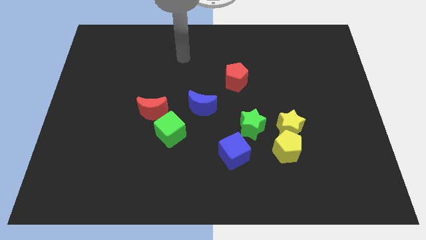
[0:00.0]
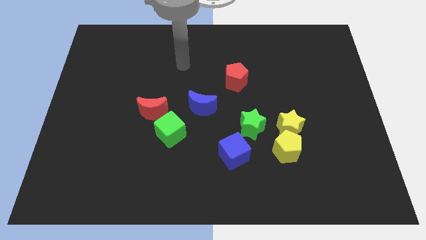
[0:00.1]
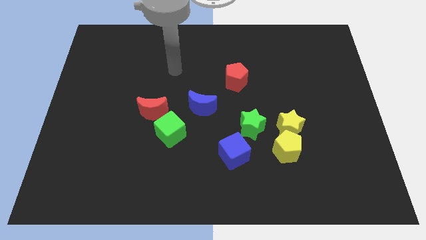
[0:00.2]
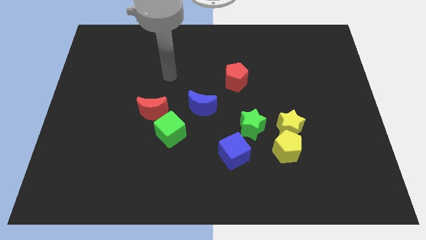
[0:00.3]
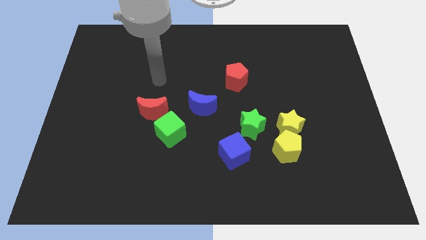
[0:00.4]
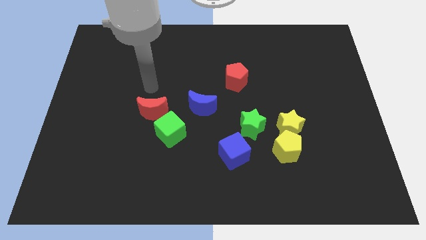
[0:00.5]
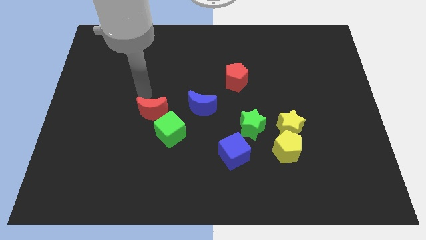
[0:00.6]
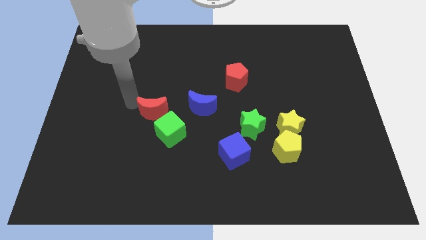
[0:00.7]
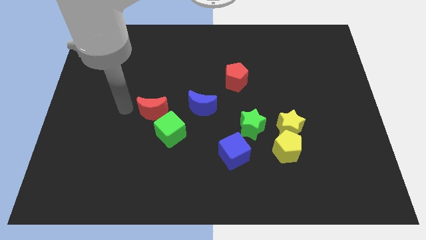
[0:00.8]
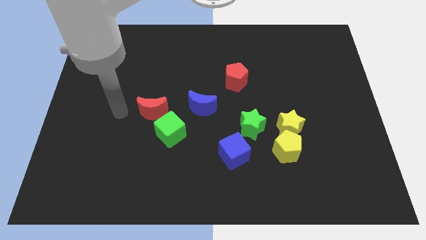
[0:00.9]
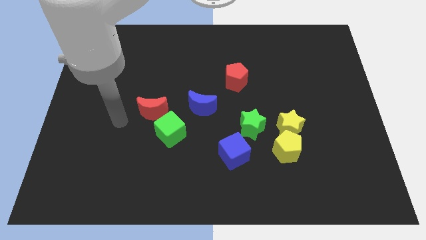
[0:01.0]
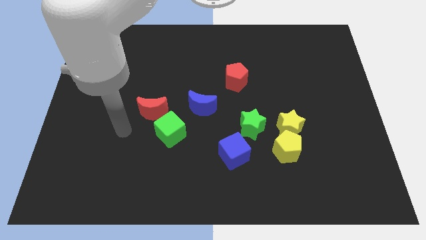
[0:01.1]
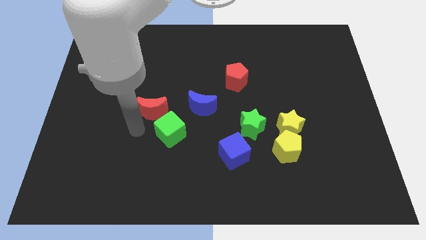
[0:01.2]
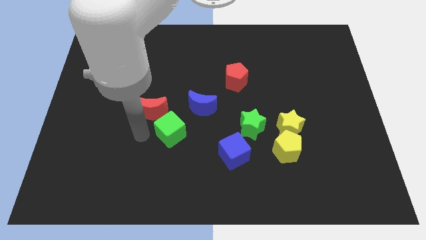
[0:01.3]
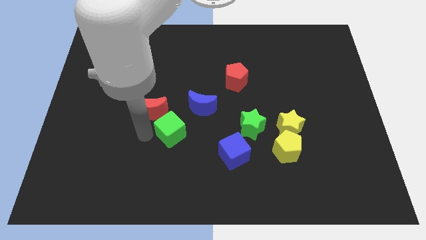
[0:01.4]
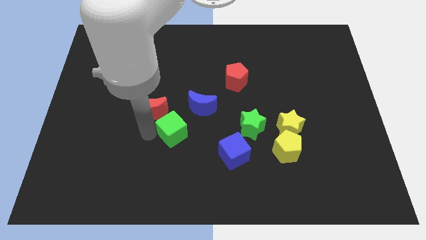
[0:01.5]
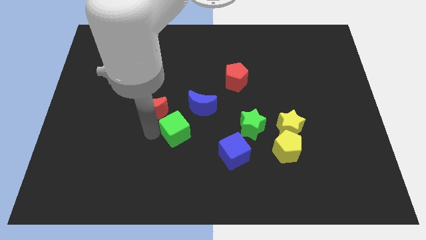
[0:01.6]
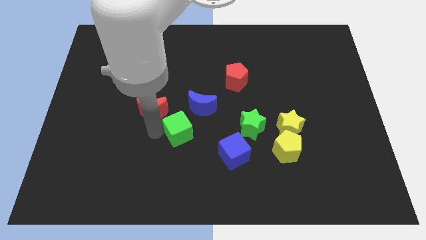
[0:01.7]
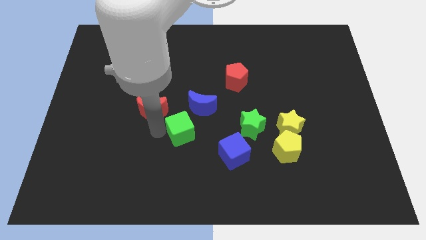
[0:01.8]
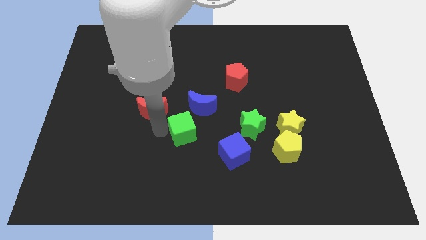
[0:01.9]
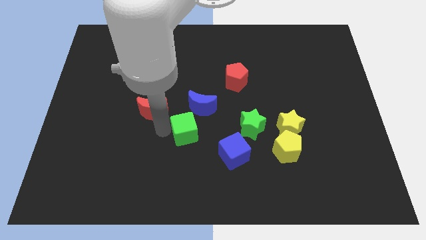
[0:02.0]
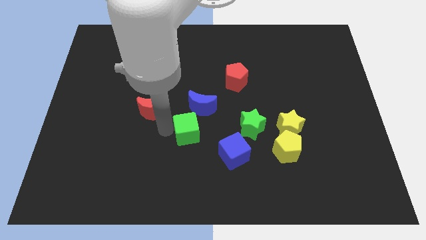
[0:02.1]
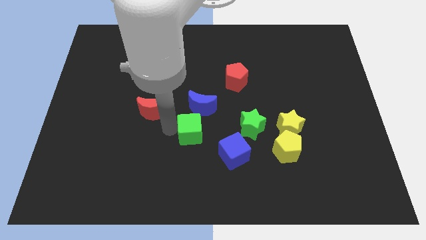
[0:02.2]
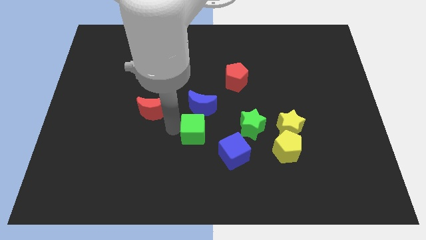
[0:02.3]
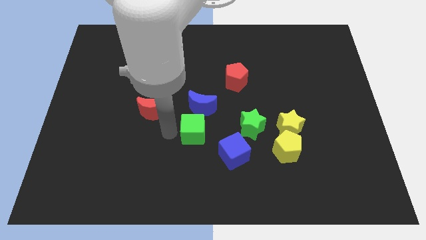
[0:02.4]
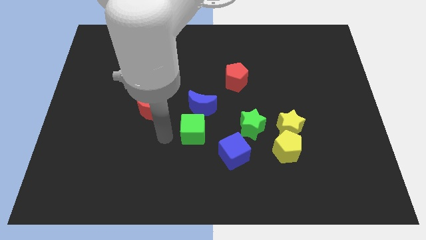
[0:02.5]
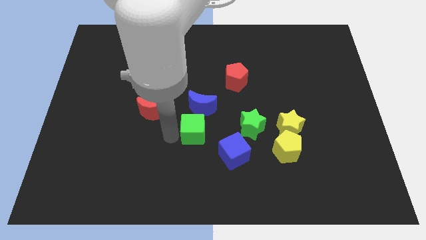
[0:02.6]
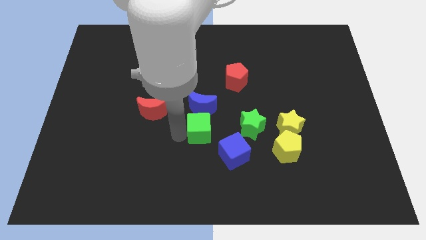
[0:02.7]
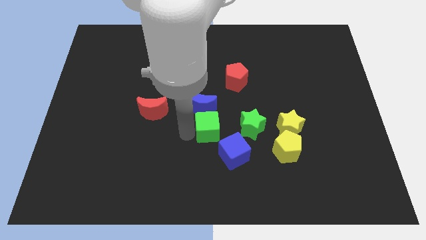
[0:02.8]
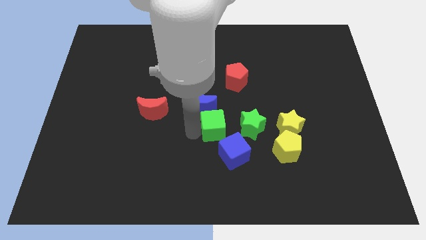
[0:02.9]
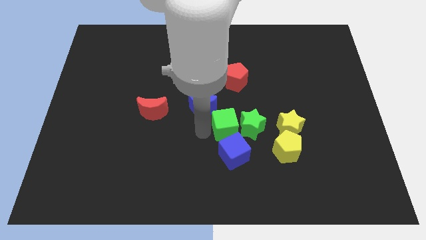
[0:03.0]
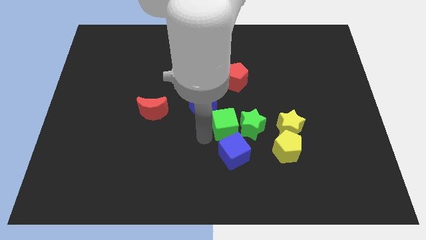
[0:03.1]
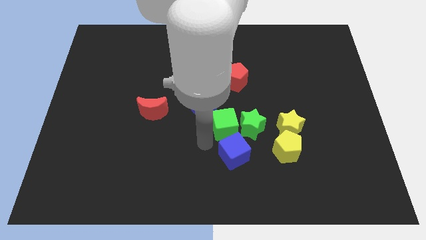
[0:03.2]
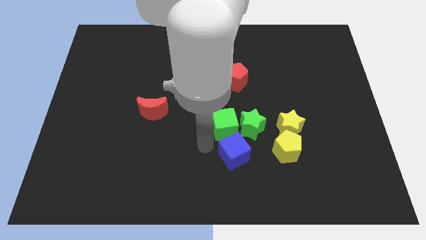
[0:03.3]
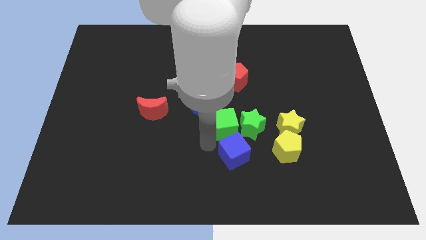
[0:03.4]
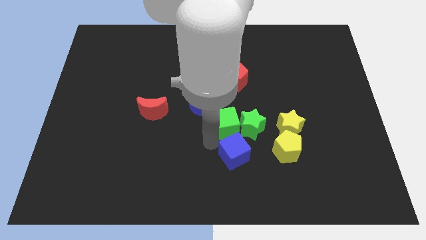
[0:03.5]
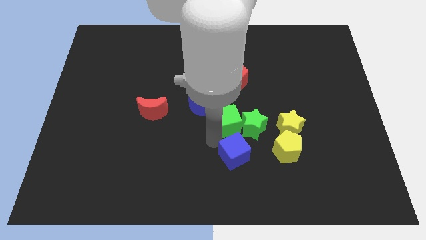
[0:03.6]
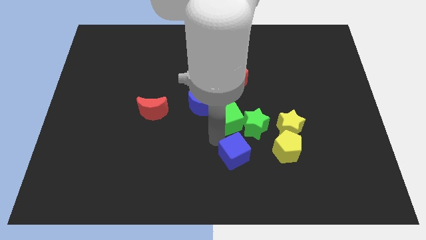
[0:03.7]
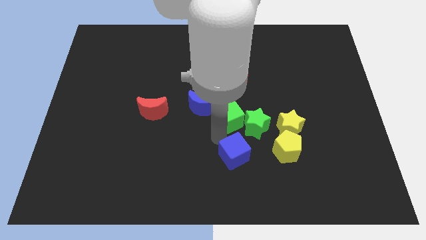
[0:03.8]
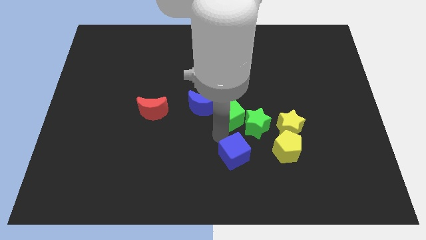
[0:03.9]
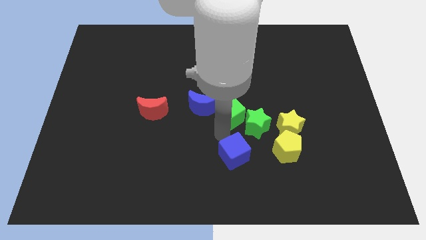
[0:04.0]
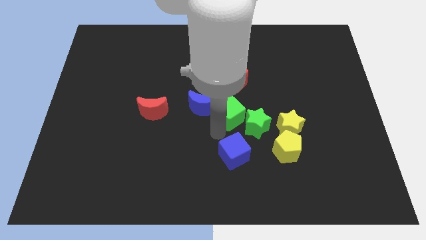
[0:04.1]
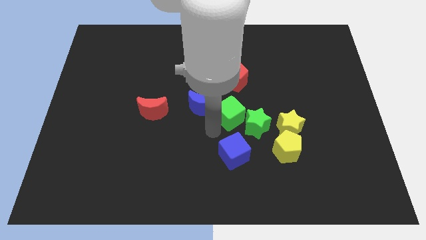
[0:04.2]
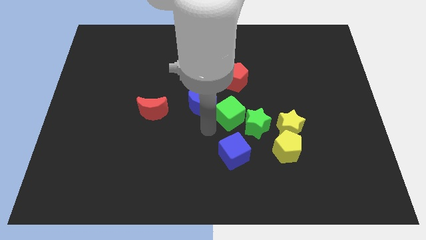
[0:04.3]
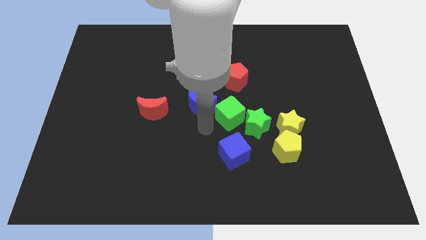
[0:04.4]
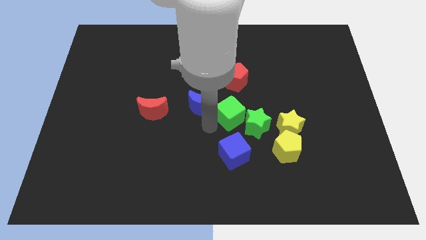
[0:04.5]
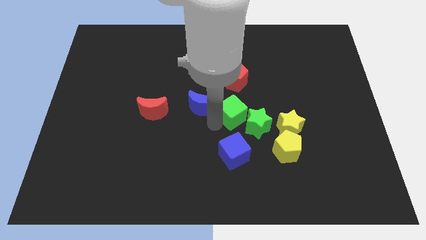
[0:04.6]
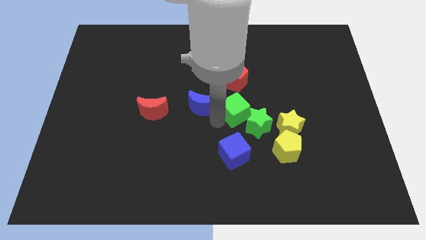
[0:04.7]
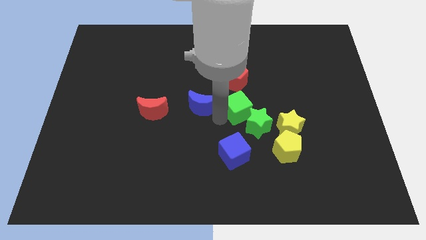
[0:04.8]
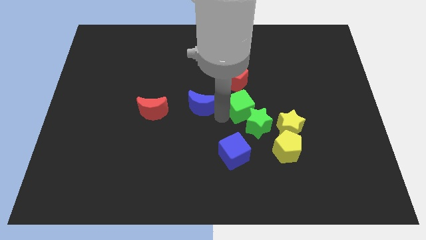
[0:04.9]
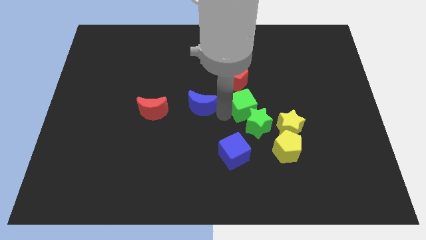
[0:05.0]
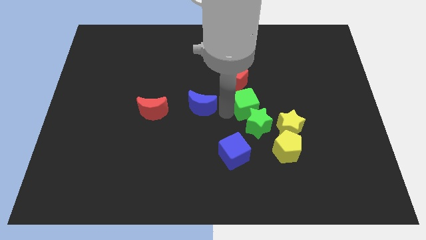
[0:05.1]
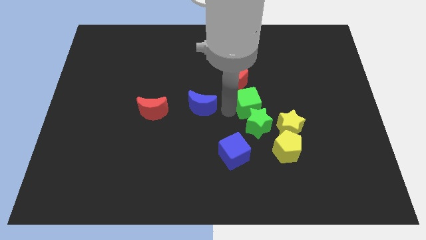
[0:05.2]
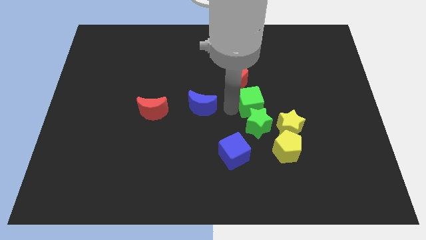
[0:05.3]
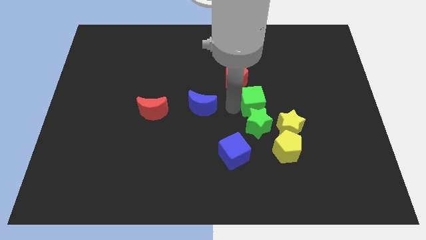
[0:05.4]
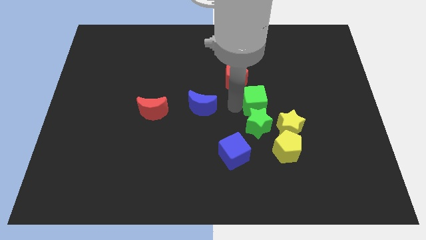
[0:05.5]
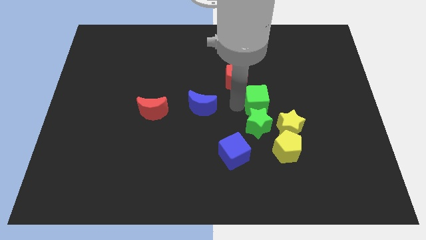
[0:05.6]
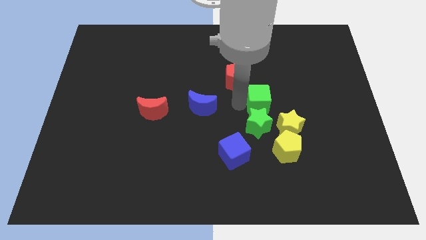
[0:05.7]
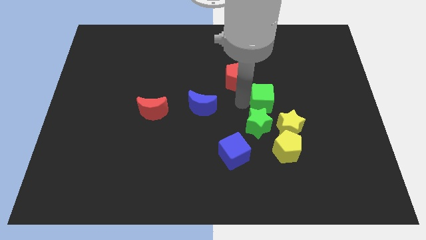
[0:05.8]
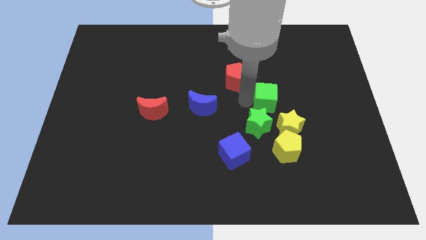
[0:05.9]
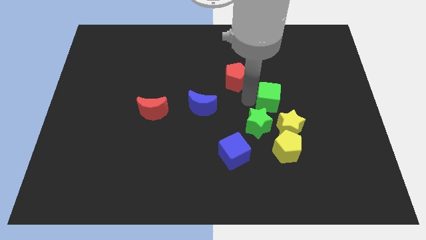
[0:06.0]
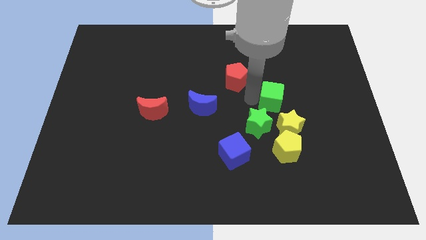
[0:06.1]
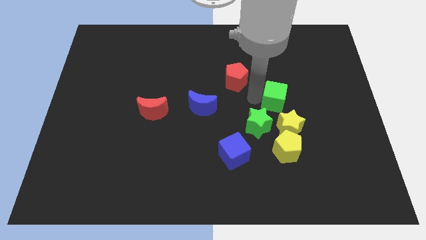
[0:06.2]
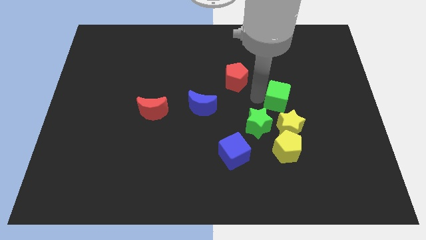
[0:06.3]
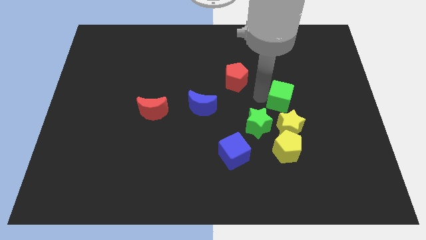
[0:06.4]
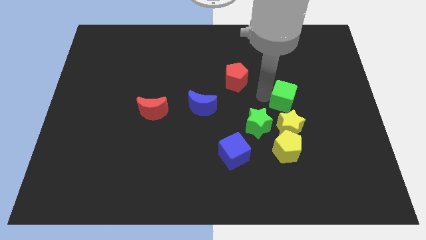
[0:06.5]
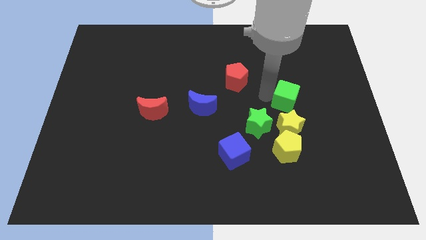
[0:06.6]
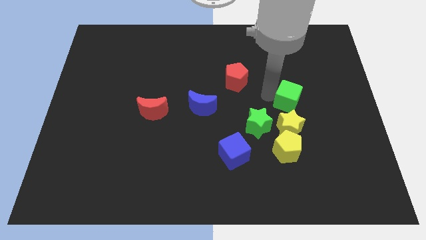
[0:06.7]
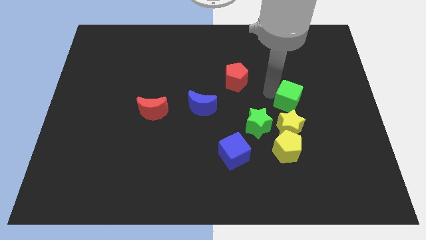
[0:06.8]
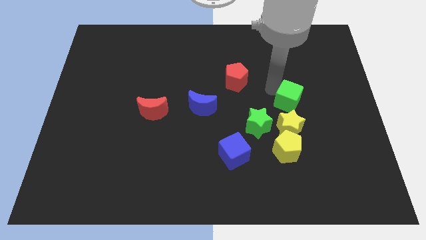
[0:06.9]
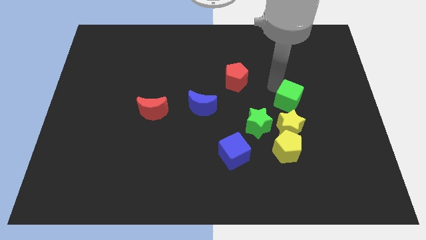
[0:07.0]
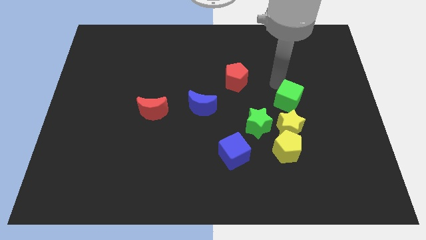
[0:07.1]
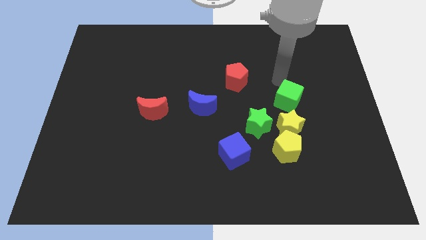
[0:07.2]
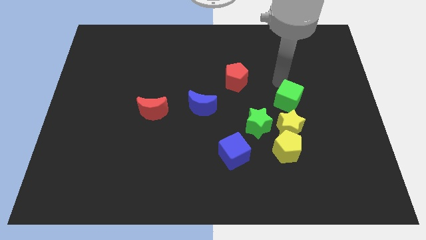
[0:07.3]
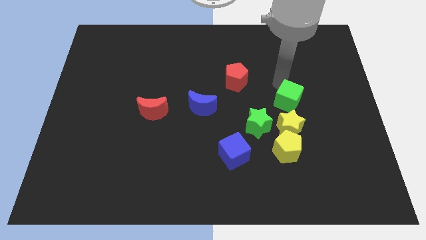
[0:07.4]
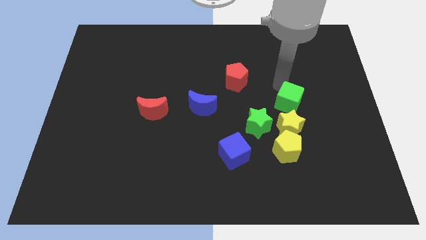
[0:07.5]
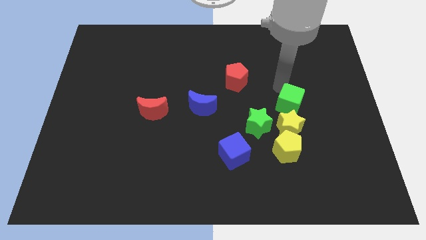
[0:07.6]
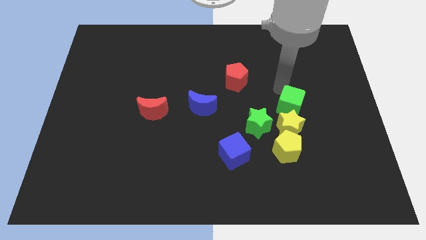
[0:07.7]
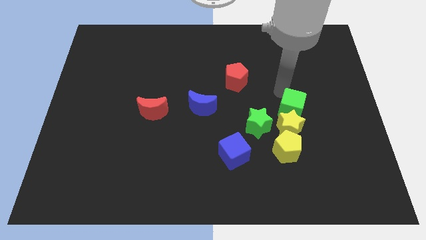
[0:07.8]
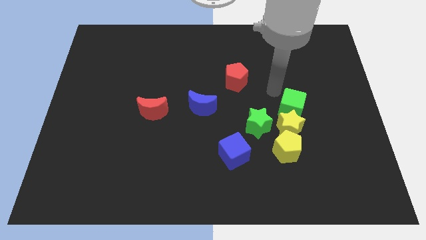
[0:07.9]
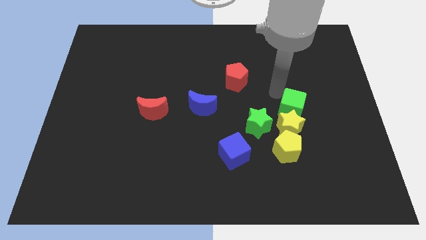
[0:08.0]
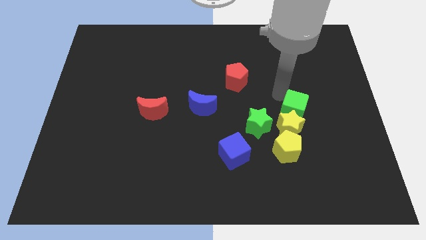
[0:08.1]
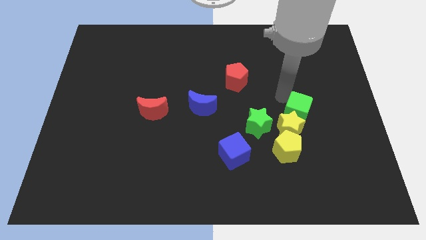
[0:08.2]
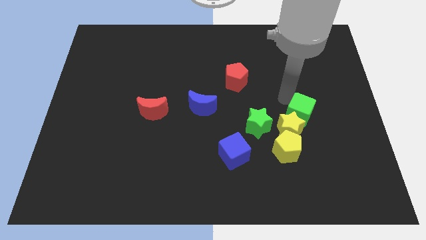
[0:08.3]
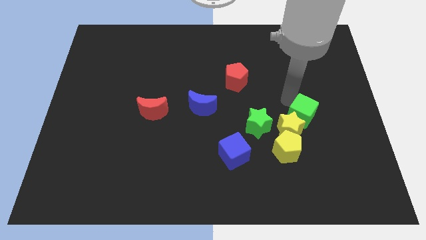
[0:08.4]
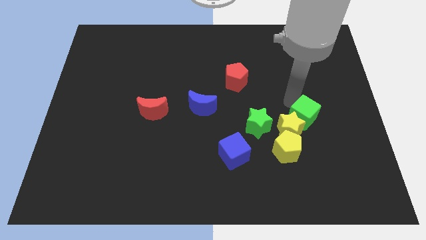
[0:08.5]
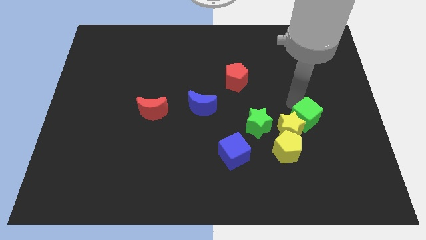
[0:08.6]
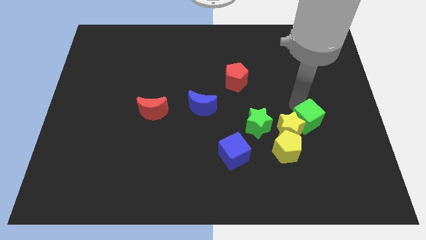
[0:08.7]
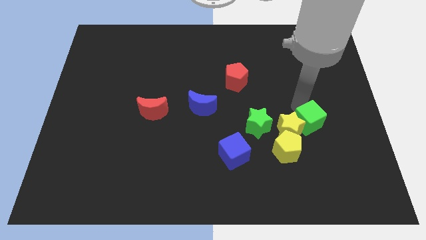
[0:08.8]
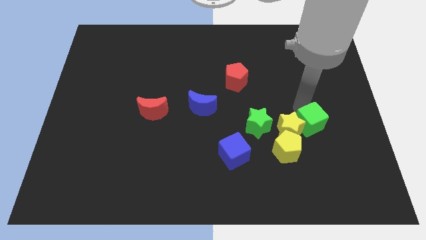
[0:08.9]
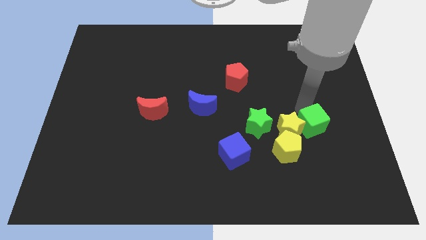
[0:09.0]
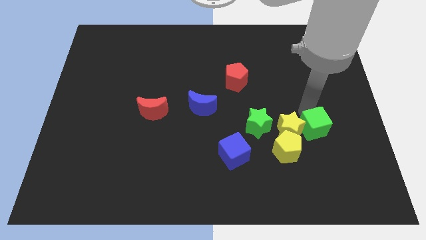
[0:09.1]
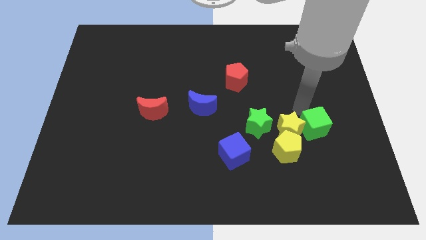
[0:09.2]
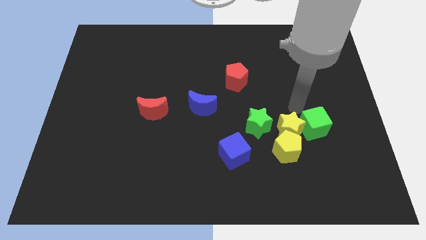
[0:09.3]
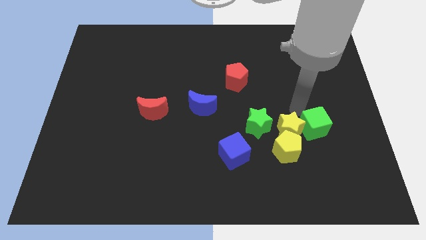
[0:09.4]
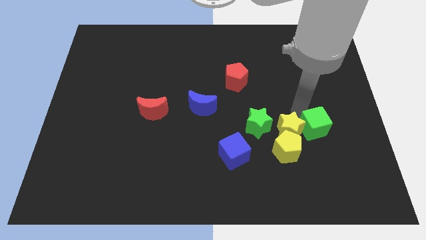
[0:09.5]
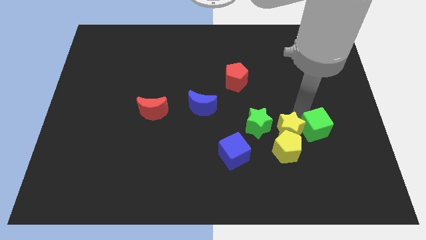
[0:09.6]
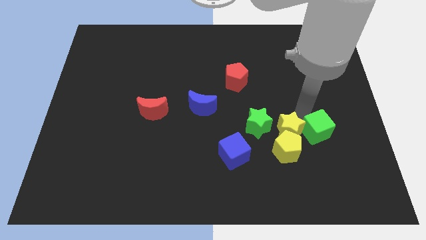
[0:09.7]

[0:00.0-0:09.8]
put the green cube to the right of the yellow pentagon
